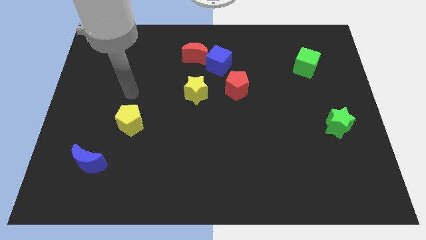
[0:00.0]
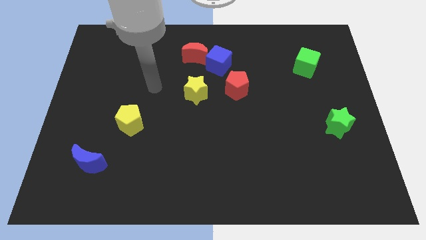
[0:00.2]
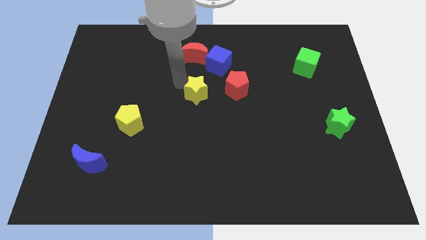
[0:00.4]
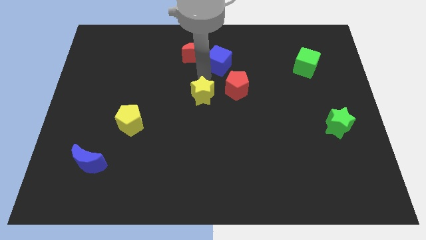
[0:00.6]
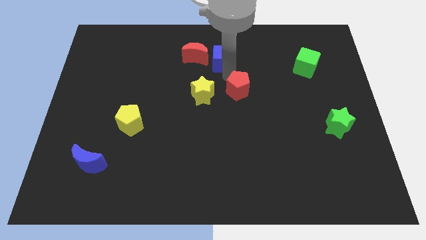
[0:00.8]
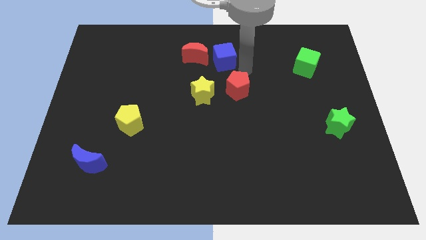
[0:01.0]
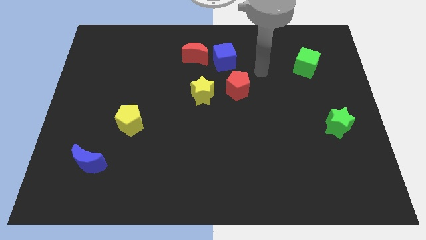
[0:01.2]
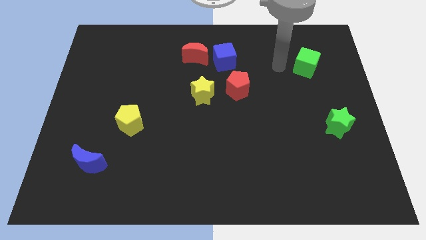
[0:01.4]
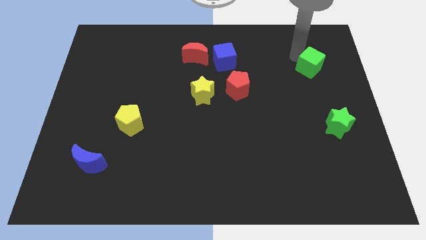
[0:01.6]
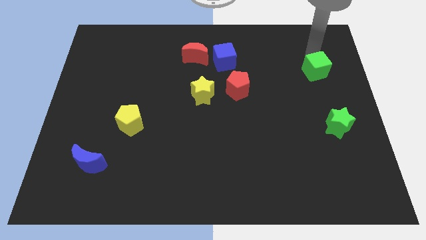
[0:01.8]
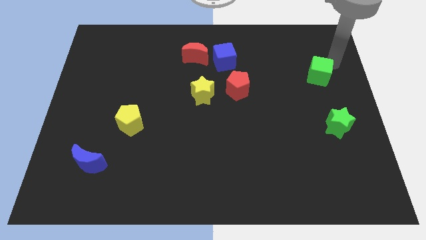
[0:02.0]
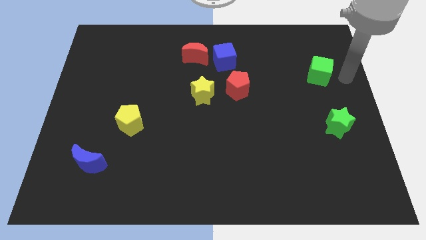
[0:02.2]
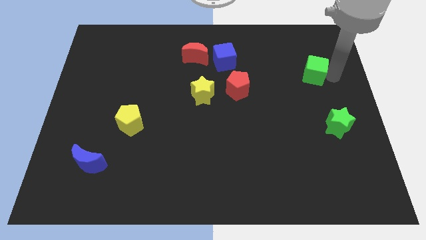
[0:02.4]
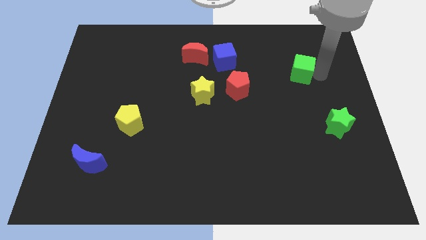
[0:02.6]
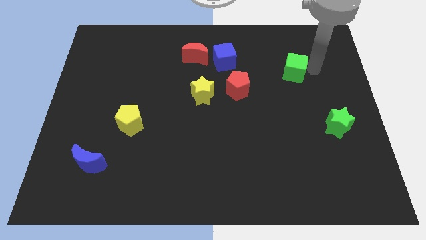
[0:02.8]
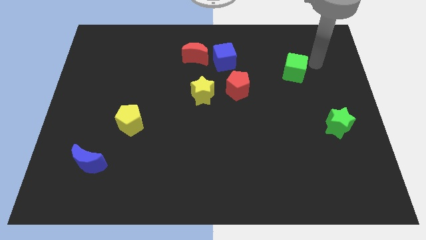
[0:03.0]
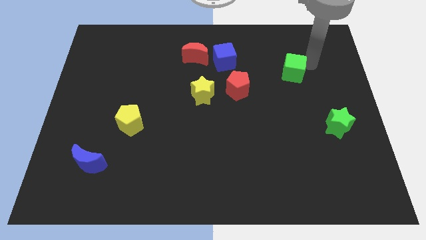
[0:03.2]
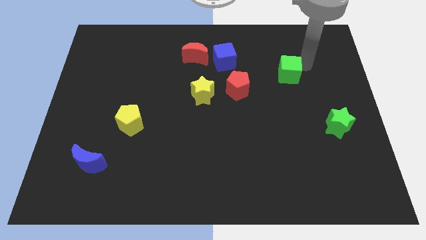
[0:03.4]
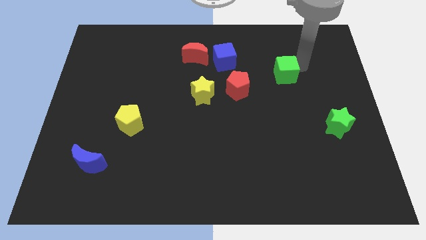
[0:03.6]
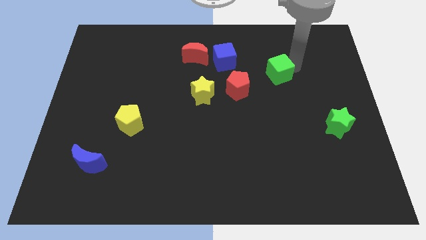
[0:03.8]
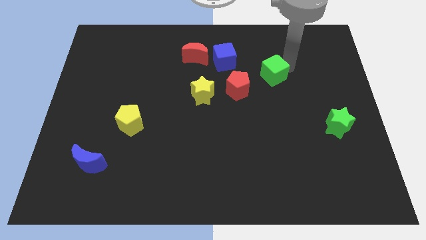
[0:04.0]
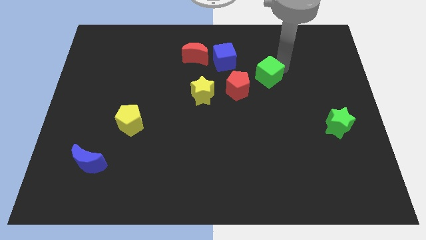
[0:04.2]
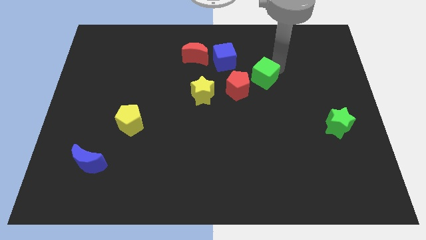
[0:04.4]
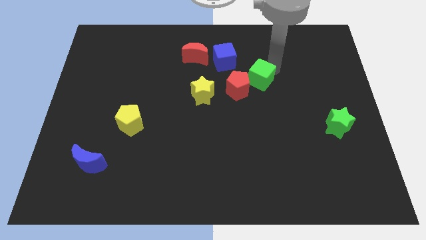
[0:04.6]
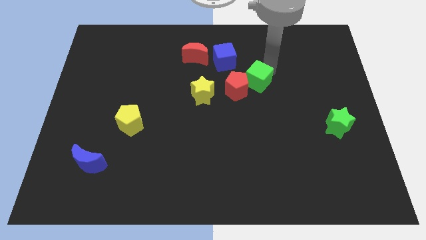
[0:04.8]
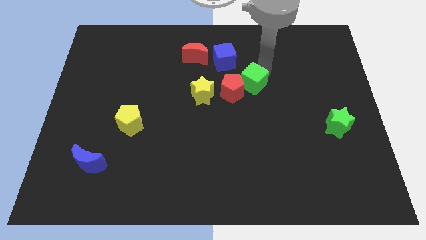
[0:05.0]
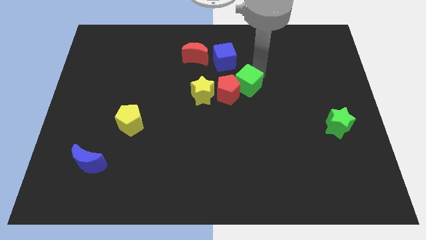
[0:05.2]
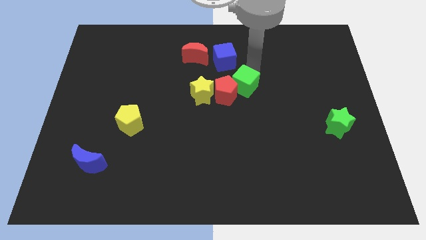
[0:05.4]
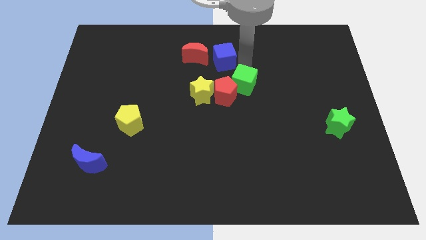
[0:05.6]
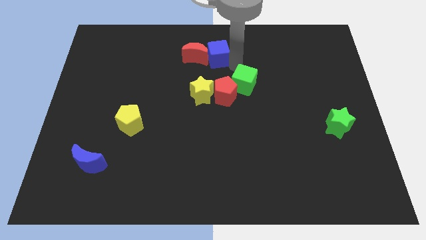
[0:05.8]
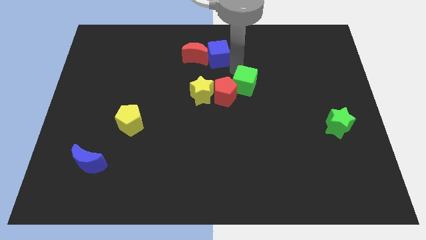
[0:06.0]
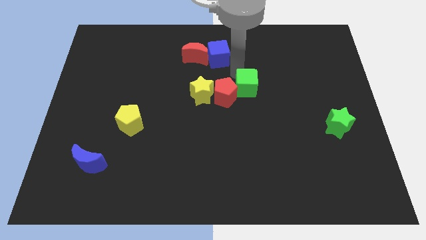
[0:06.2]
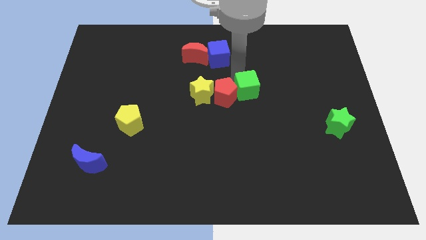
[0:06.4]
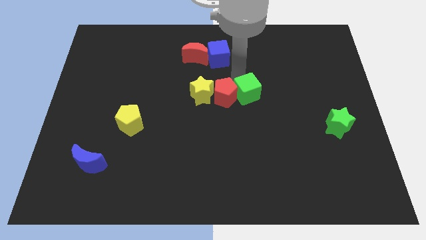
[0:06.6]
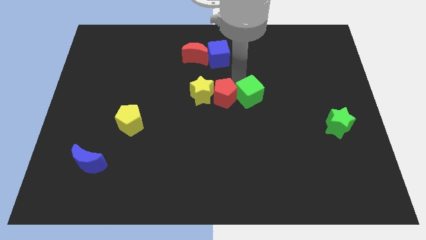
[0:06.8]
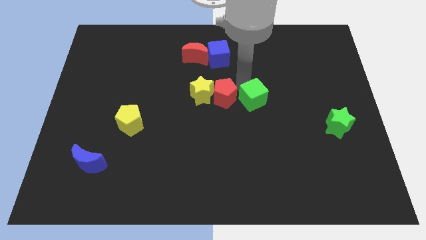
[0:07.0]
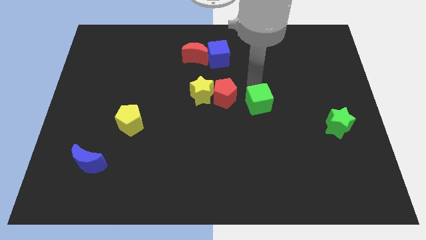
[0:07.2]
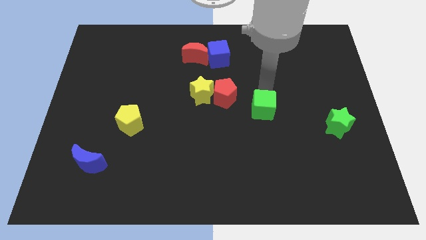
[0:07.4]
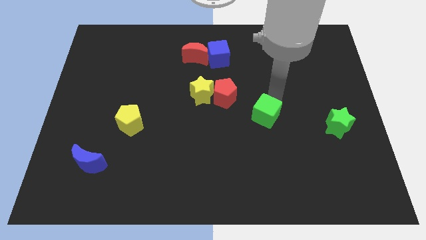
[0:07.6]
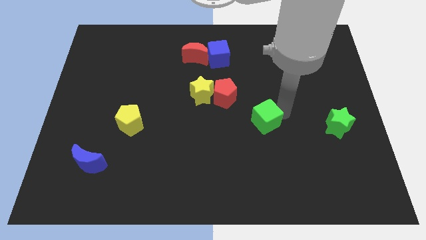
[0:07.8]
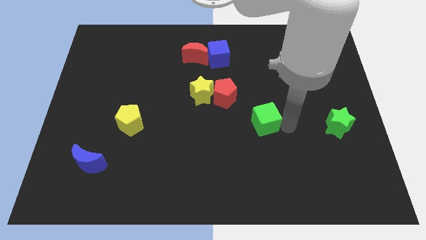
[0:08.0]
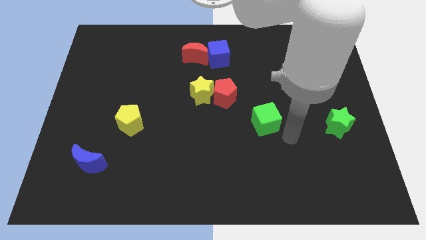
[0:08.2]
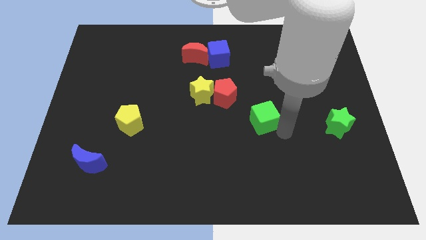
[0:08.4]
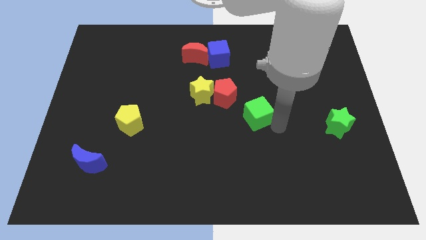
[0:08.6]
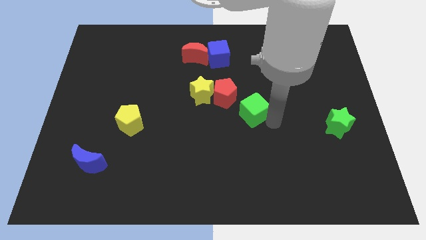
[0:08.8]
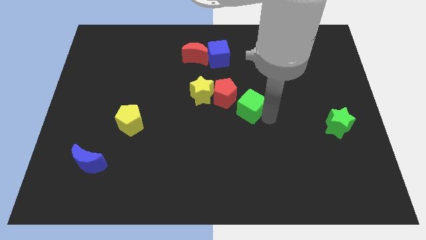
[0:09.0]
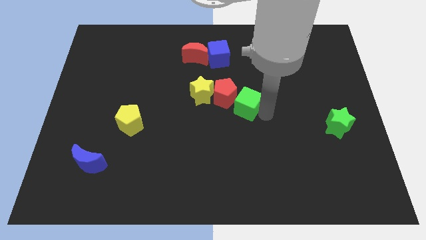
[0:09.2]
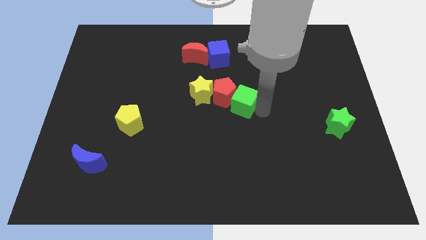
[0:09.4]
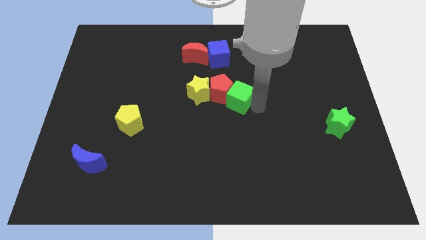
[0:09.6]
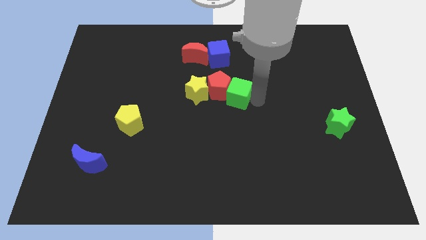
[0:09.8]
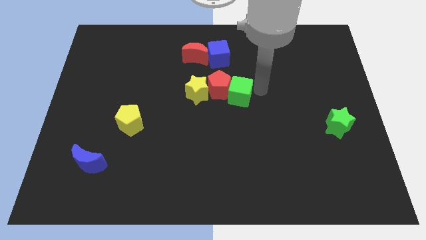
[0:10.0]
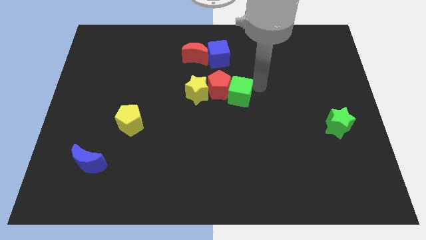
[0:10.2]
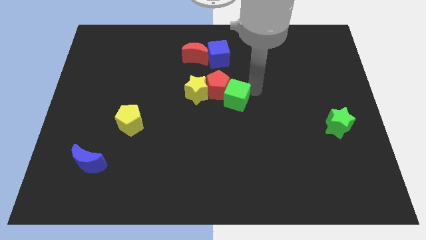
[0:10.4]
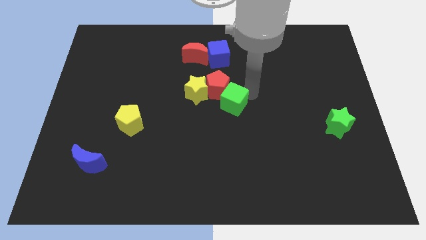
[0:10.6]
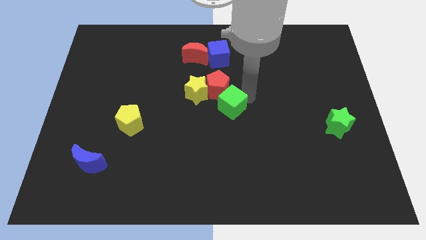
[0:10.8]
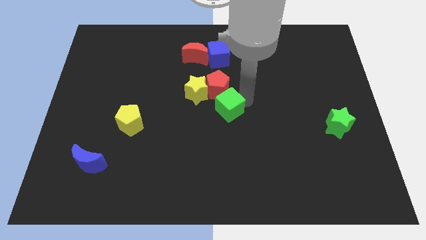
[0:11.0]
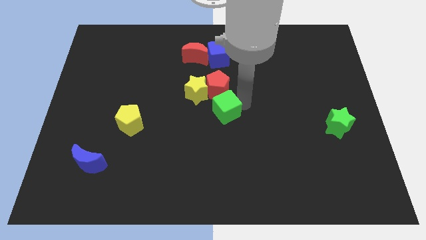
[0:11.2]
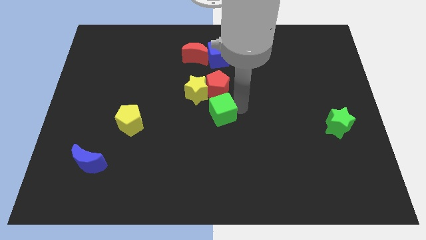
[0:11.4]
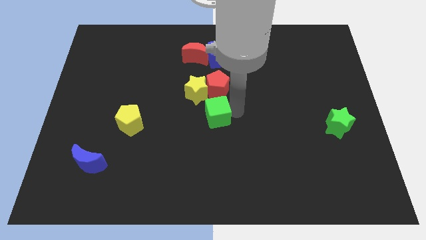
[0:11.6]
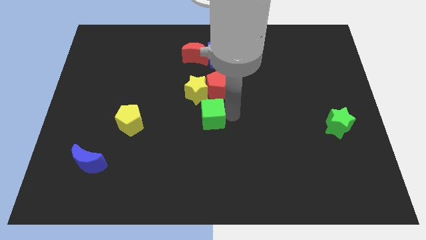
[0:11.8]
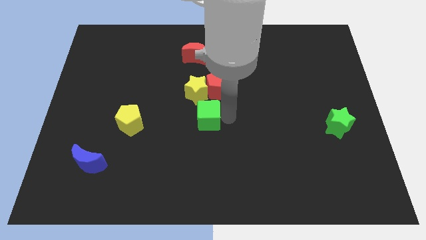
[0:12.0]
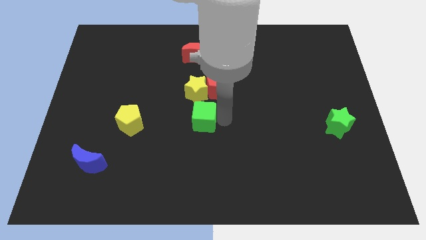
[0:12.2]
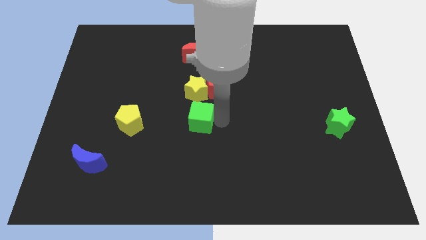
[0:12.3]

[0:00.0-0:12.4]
move the green cube just right of the yellow pentagon

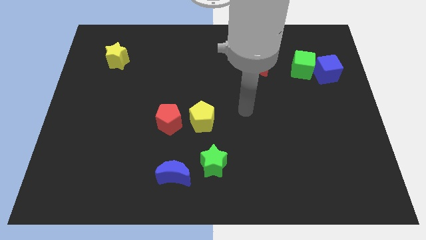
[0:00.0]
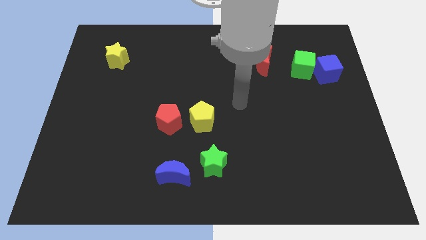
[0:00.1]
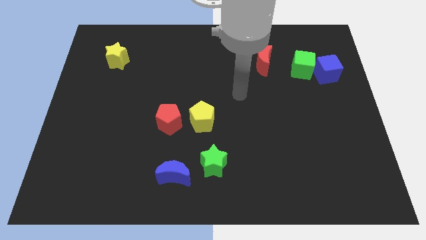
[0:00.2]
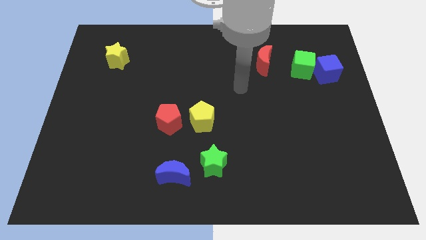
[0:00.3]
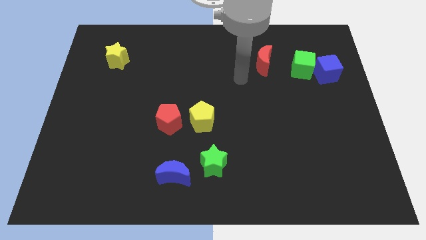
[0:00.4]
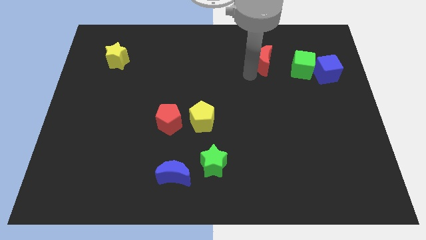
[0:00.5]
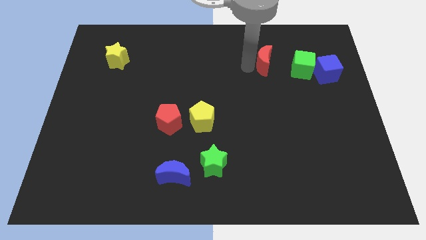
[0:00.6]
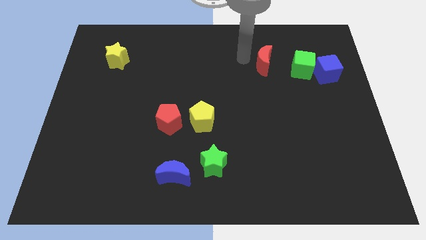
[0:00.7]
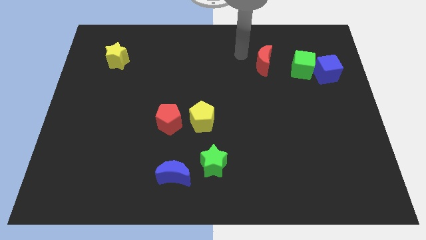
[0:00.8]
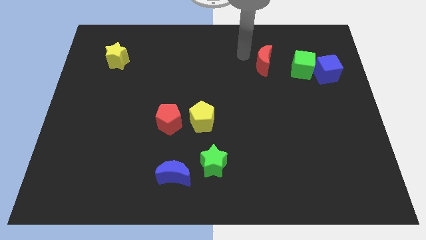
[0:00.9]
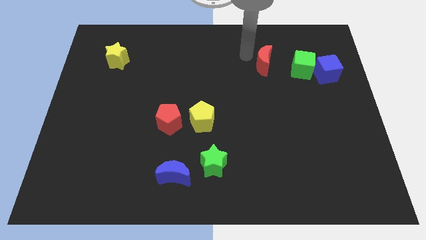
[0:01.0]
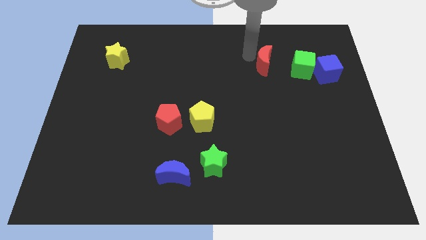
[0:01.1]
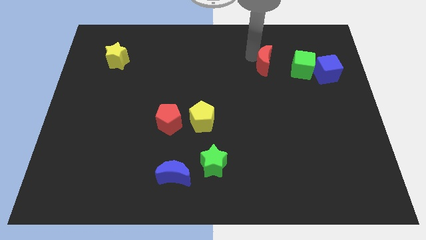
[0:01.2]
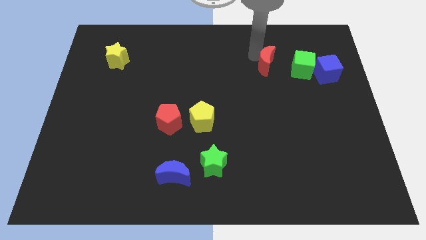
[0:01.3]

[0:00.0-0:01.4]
put the red moon left of the blue cube

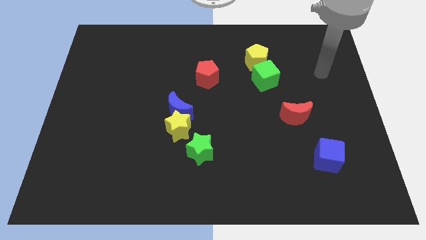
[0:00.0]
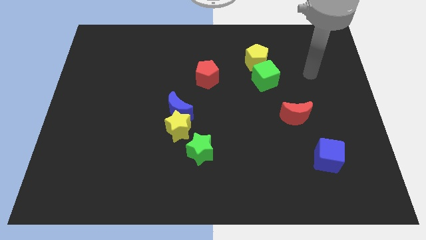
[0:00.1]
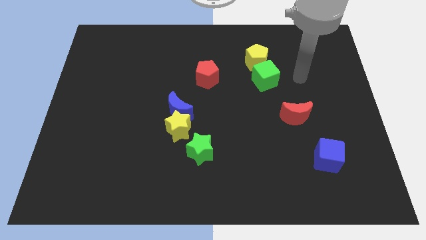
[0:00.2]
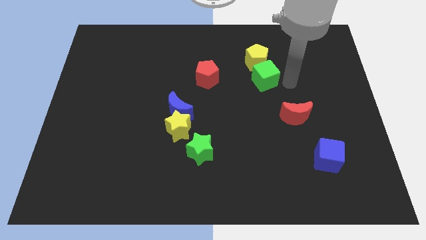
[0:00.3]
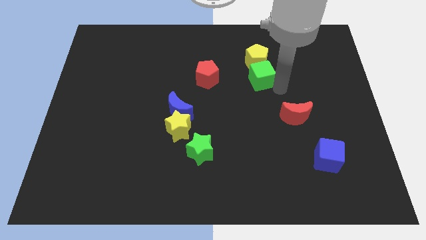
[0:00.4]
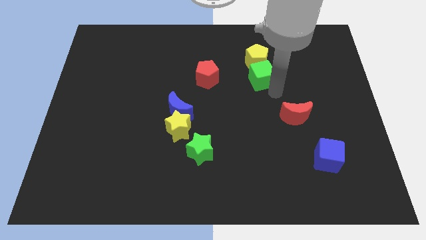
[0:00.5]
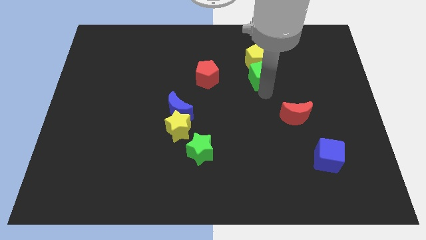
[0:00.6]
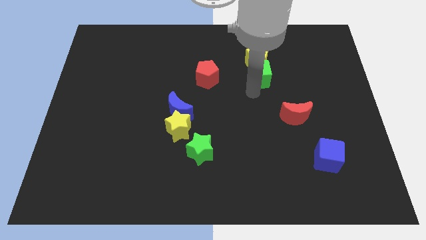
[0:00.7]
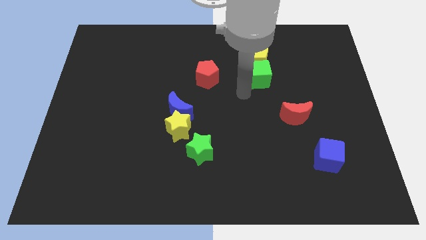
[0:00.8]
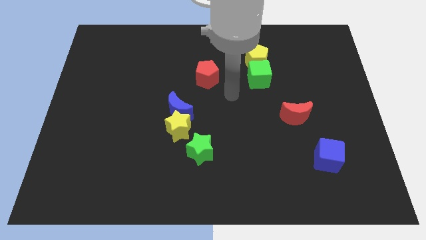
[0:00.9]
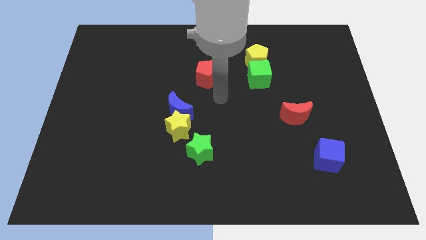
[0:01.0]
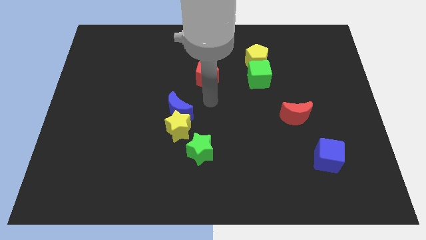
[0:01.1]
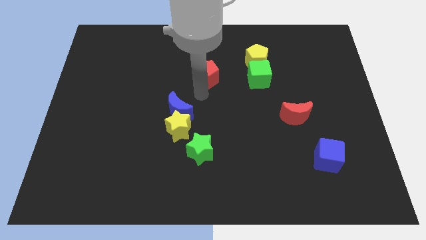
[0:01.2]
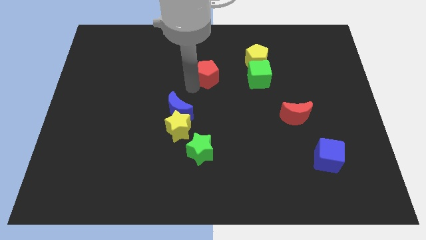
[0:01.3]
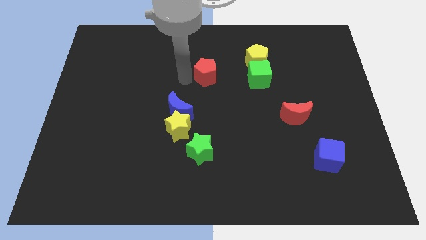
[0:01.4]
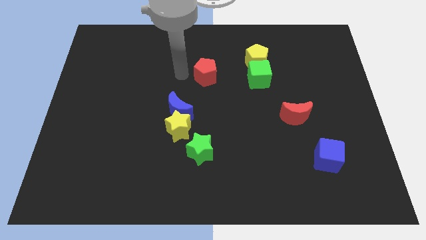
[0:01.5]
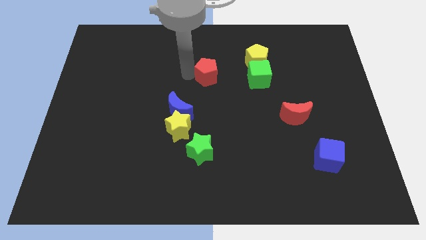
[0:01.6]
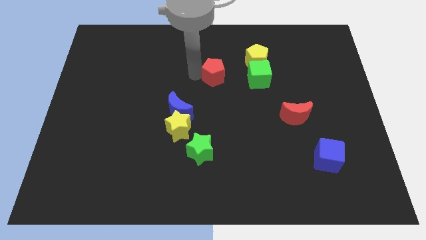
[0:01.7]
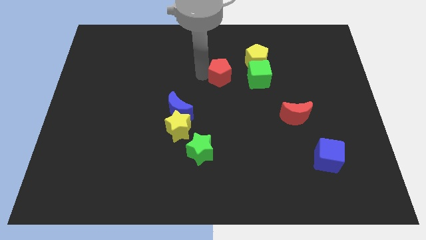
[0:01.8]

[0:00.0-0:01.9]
push the red pentagon to the bottom left of the yellow pentagon
